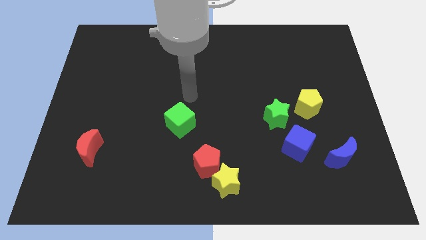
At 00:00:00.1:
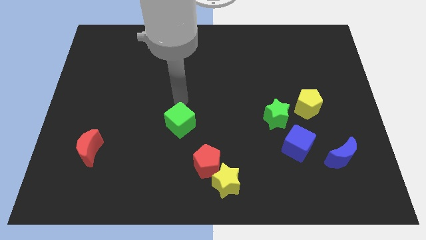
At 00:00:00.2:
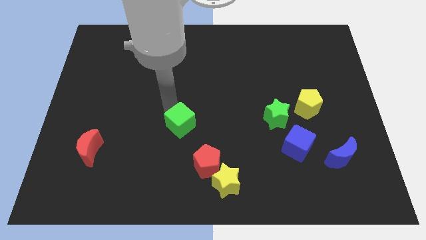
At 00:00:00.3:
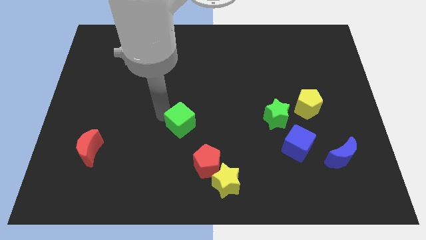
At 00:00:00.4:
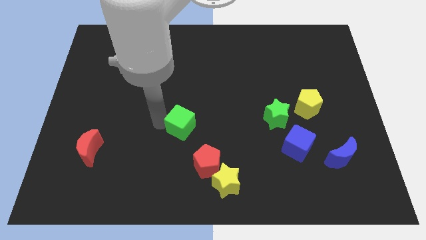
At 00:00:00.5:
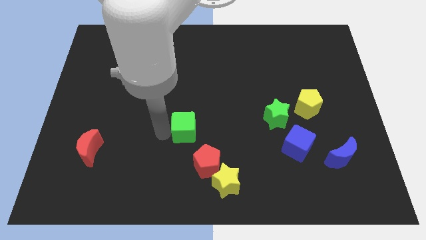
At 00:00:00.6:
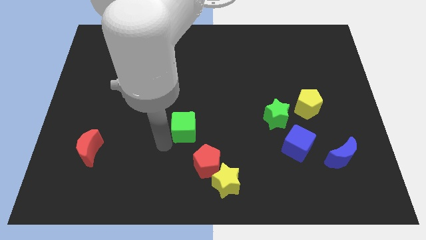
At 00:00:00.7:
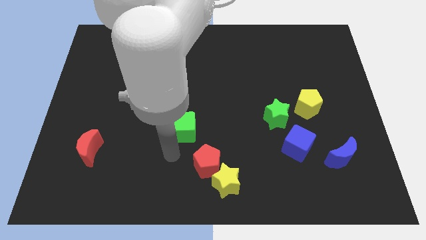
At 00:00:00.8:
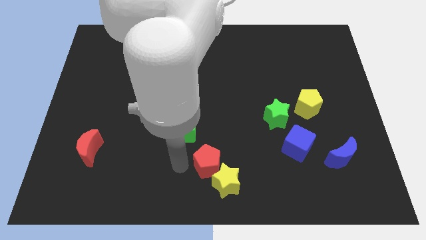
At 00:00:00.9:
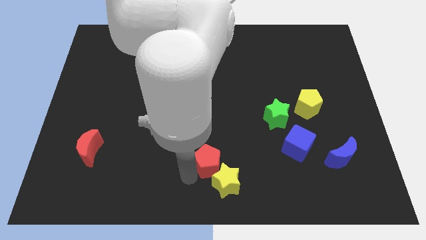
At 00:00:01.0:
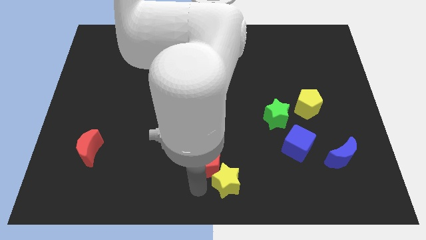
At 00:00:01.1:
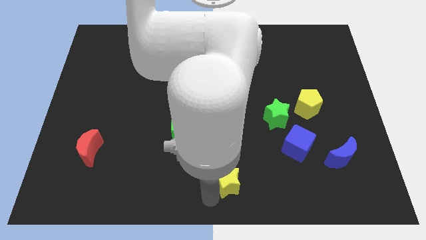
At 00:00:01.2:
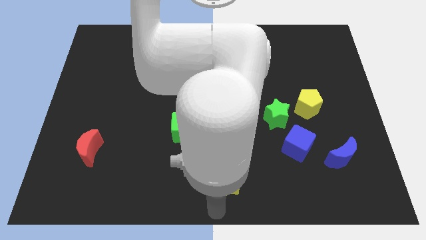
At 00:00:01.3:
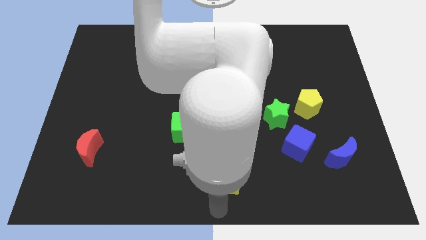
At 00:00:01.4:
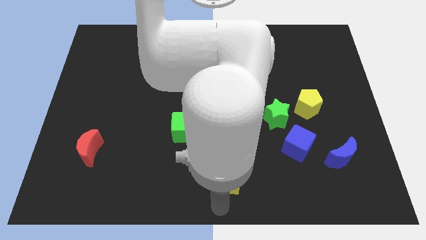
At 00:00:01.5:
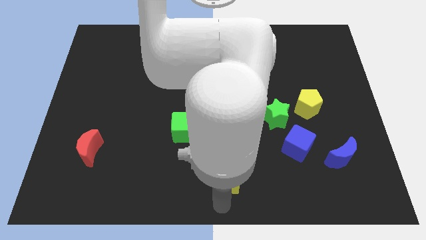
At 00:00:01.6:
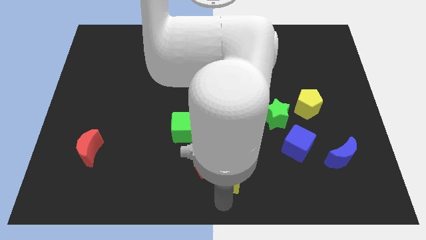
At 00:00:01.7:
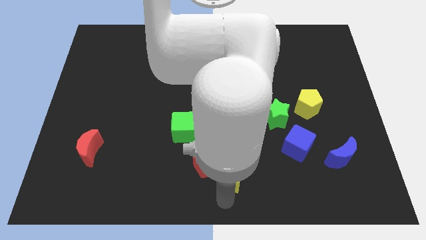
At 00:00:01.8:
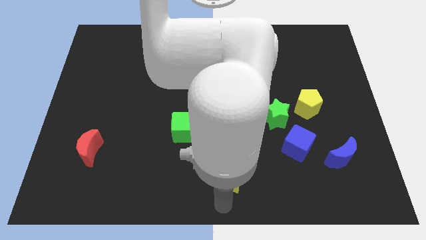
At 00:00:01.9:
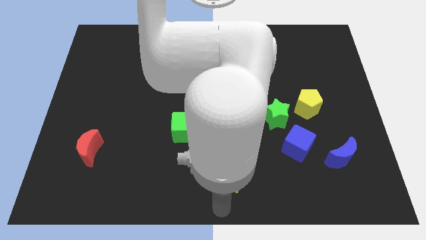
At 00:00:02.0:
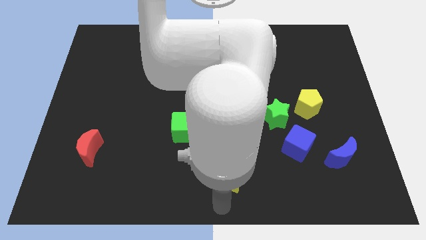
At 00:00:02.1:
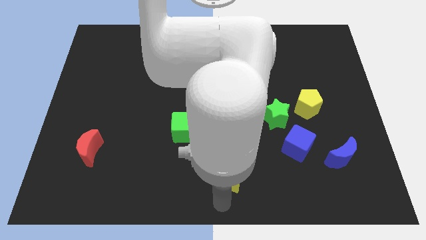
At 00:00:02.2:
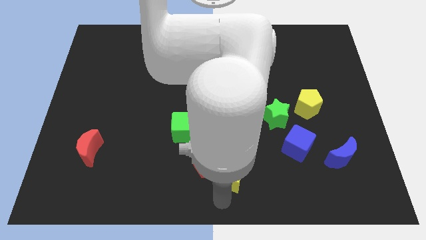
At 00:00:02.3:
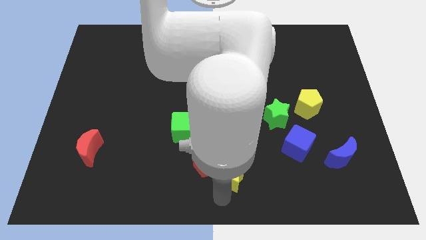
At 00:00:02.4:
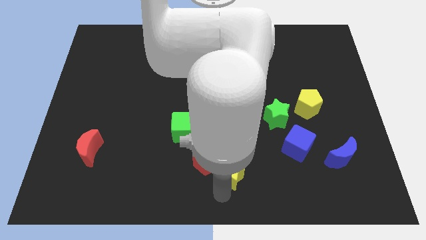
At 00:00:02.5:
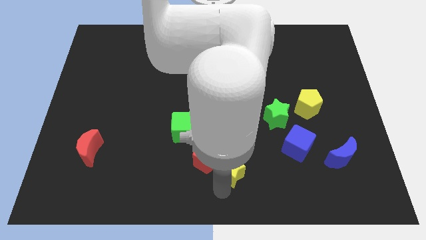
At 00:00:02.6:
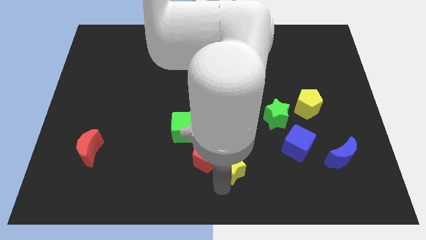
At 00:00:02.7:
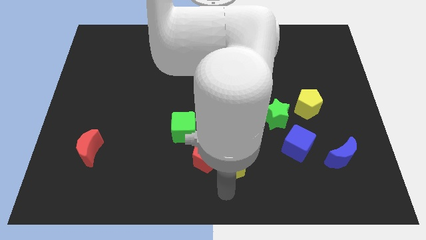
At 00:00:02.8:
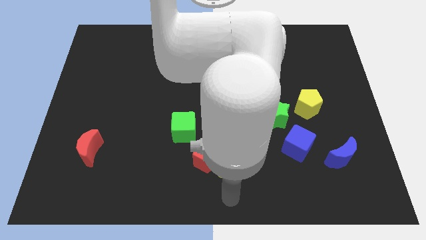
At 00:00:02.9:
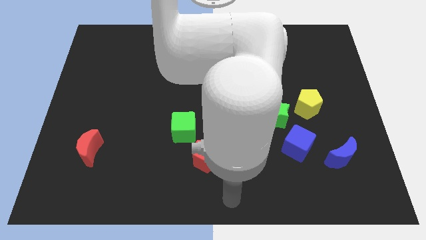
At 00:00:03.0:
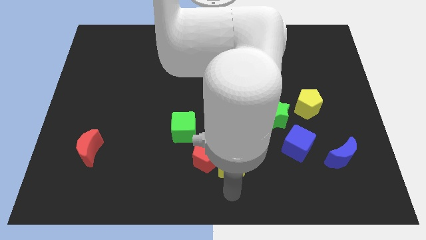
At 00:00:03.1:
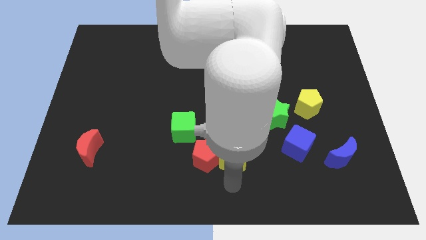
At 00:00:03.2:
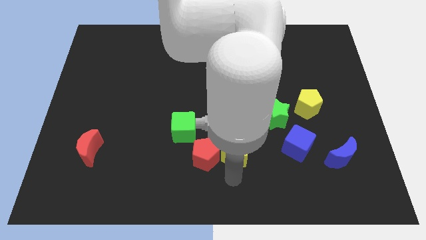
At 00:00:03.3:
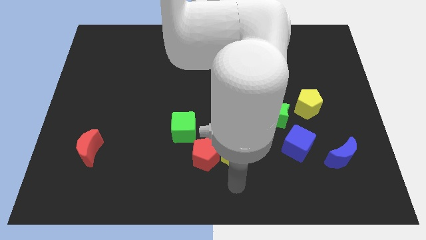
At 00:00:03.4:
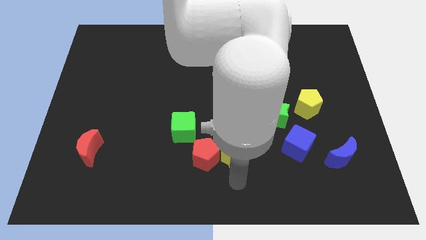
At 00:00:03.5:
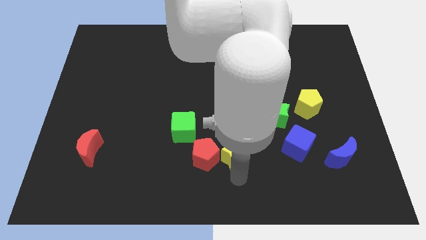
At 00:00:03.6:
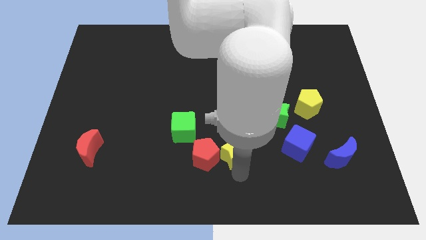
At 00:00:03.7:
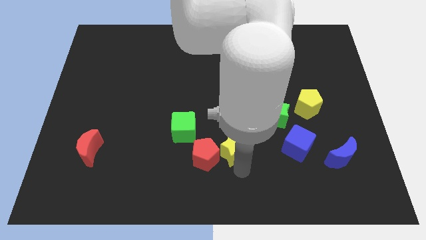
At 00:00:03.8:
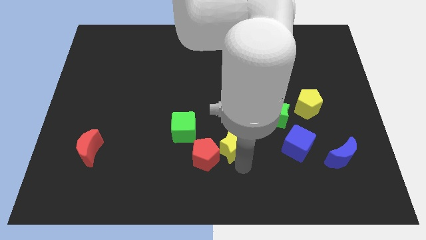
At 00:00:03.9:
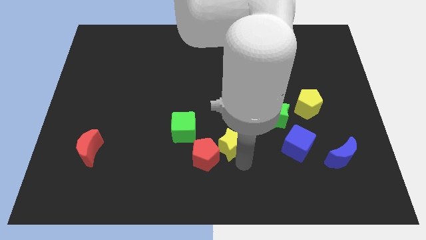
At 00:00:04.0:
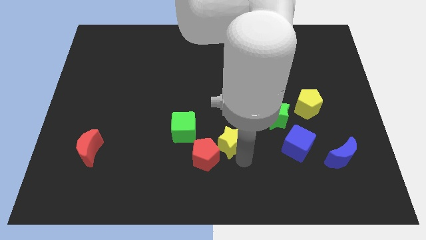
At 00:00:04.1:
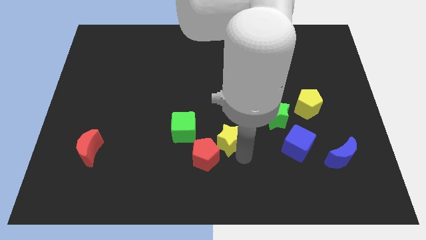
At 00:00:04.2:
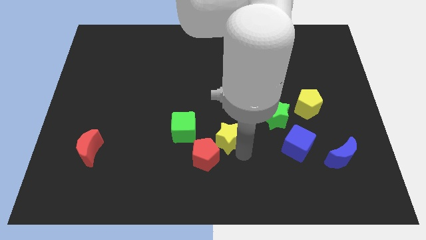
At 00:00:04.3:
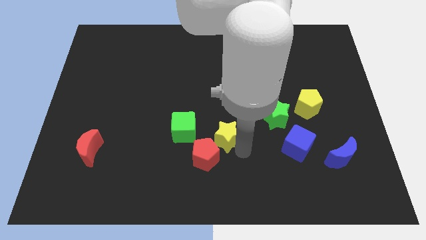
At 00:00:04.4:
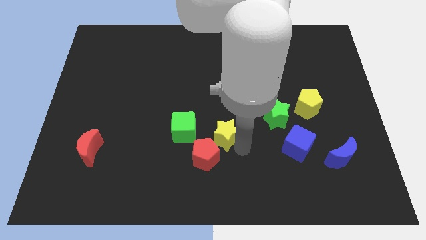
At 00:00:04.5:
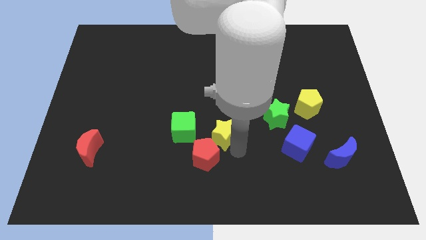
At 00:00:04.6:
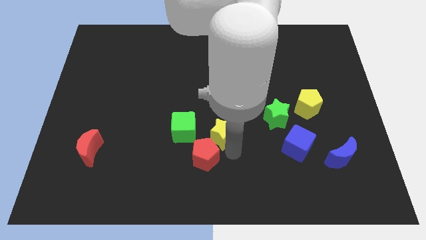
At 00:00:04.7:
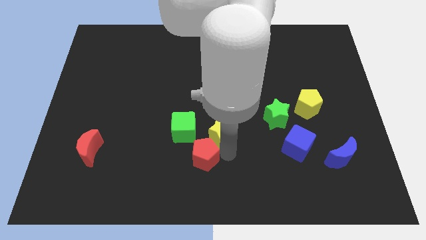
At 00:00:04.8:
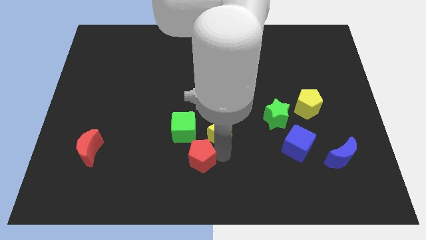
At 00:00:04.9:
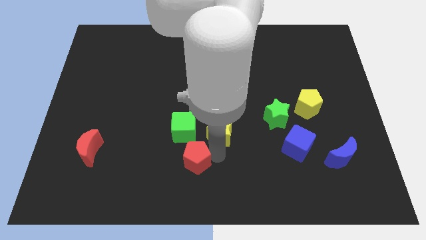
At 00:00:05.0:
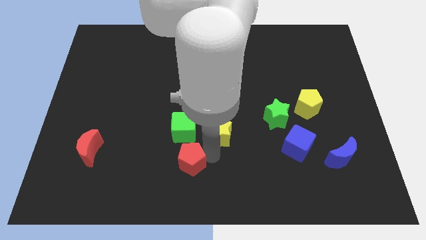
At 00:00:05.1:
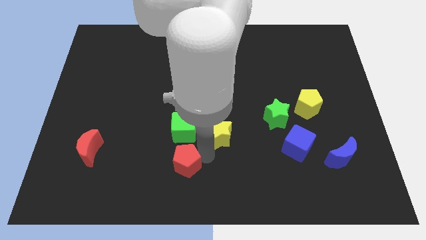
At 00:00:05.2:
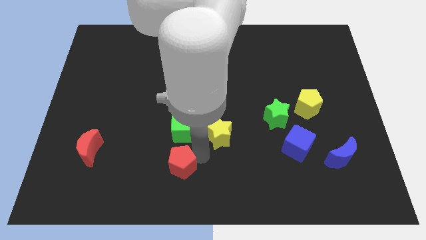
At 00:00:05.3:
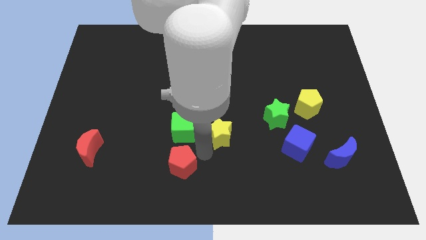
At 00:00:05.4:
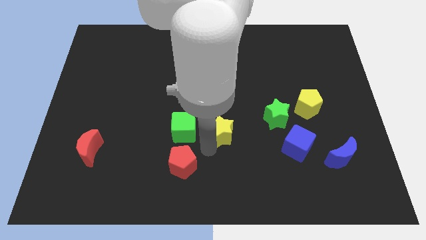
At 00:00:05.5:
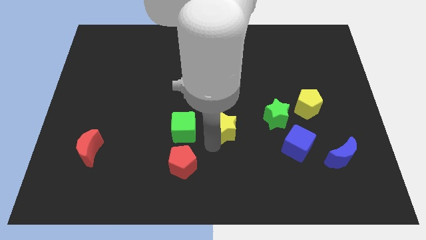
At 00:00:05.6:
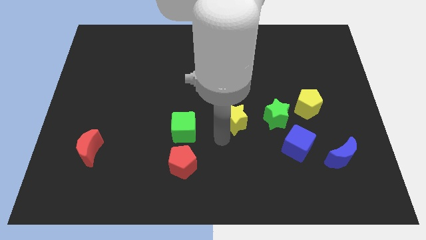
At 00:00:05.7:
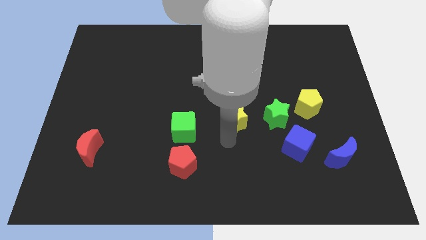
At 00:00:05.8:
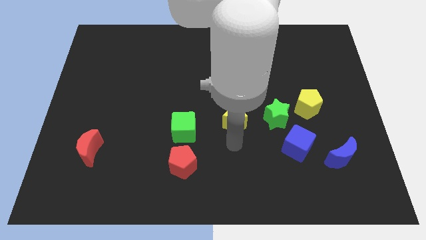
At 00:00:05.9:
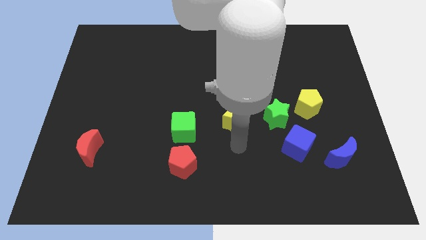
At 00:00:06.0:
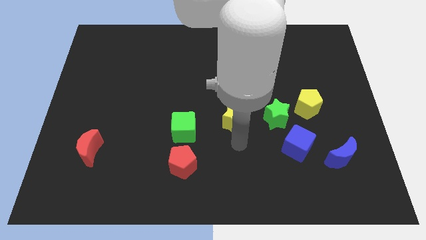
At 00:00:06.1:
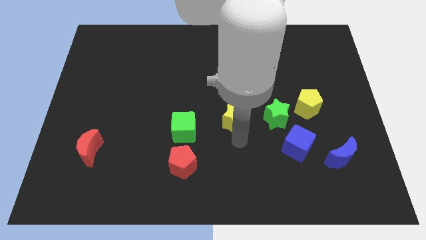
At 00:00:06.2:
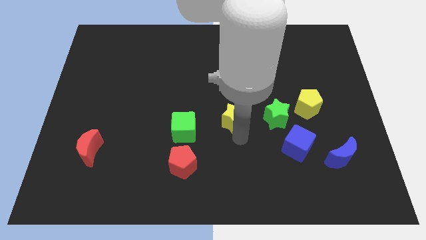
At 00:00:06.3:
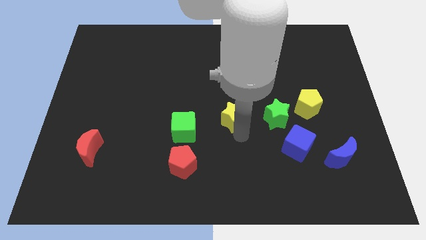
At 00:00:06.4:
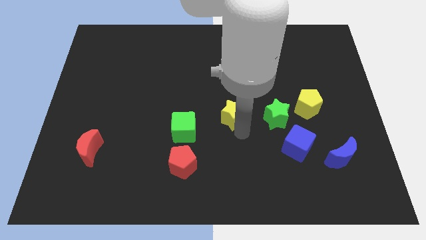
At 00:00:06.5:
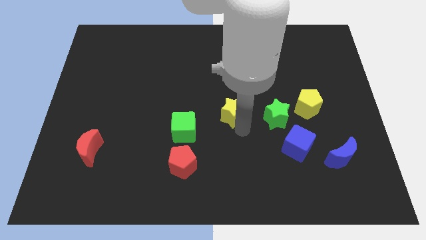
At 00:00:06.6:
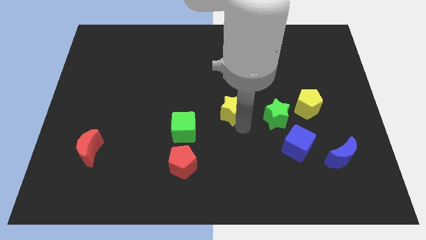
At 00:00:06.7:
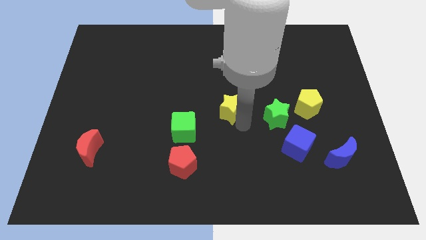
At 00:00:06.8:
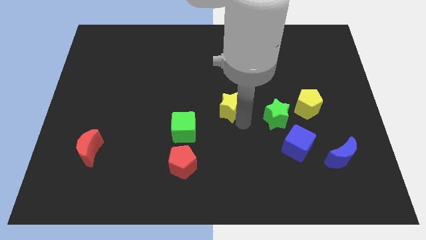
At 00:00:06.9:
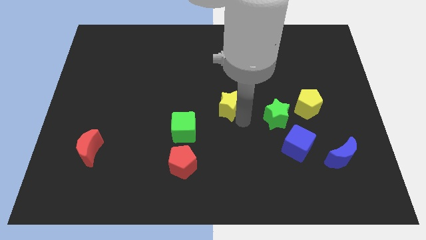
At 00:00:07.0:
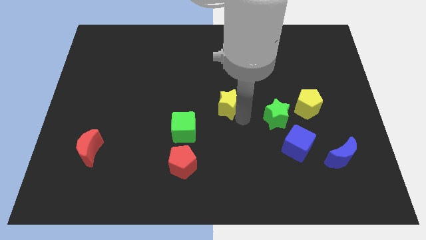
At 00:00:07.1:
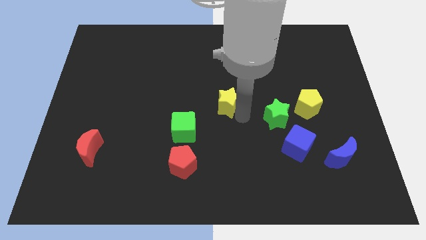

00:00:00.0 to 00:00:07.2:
push the yellow star upwards

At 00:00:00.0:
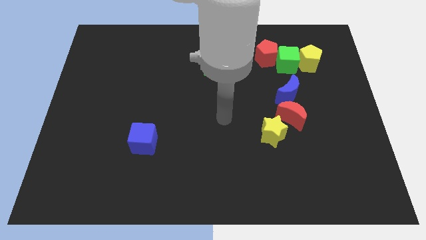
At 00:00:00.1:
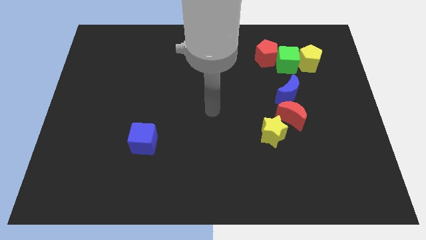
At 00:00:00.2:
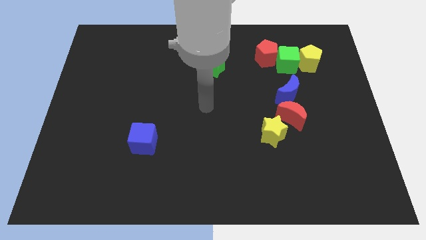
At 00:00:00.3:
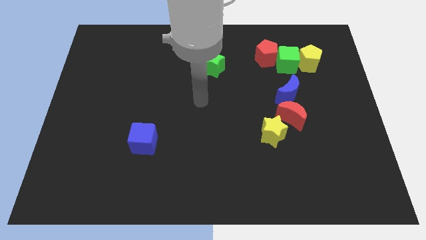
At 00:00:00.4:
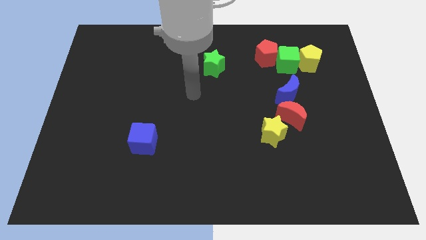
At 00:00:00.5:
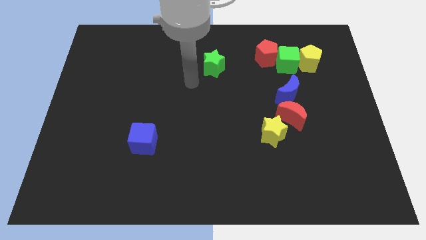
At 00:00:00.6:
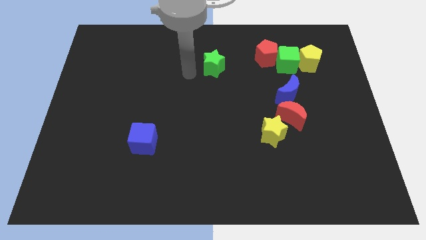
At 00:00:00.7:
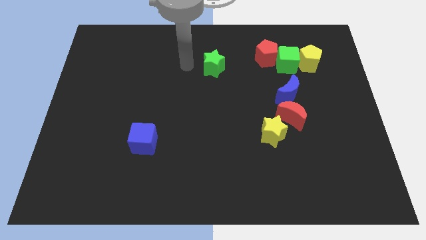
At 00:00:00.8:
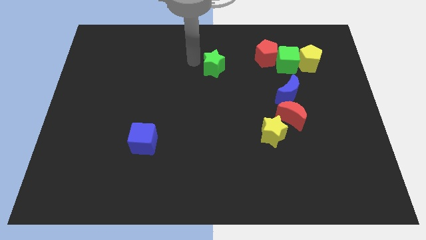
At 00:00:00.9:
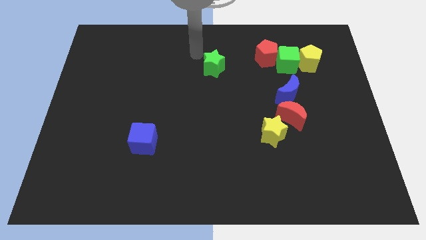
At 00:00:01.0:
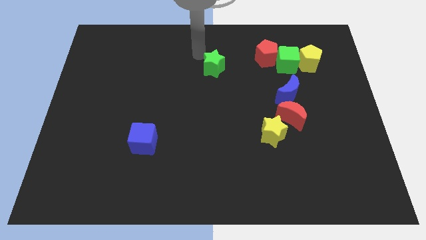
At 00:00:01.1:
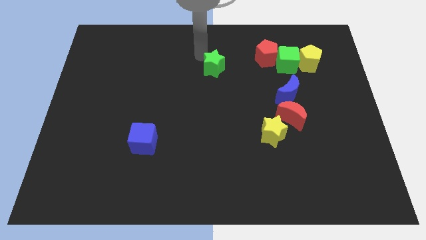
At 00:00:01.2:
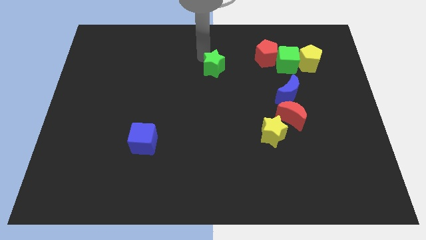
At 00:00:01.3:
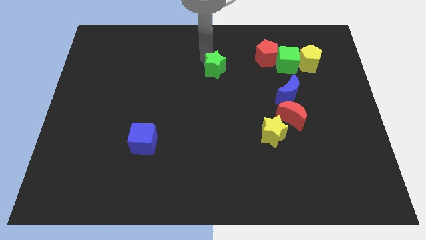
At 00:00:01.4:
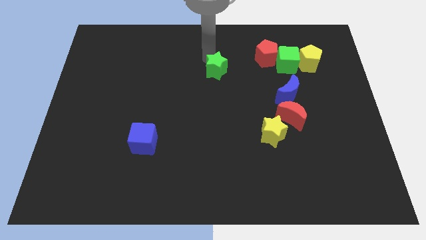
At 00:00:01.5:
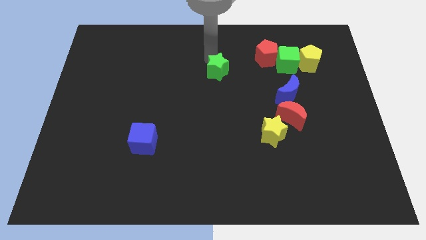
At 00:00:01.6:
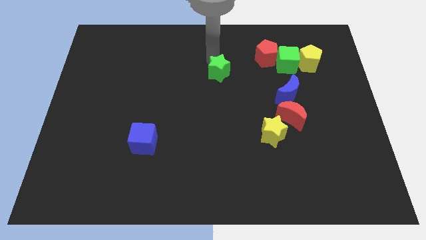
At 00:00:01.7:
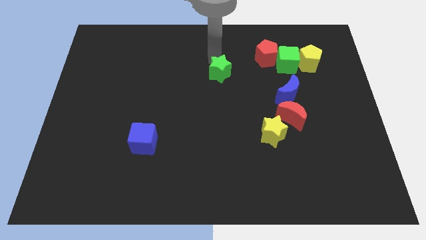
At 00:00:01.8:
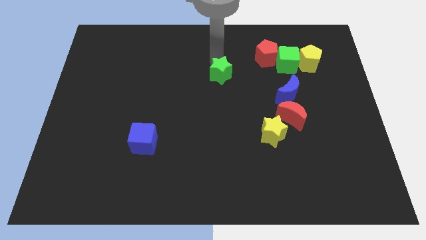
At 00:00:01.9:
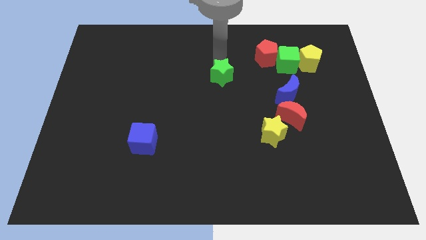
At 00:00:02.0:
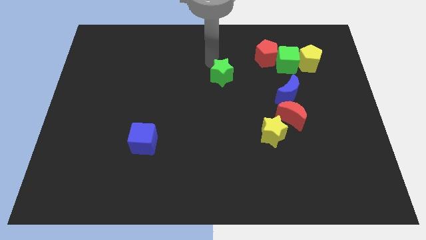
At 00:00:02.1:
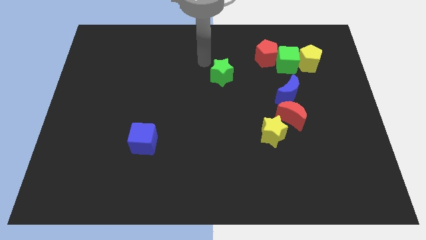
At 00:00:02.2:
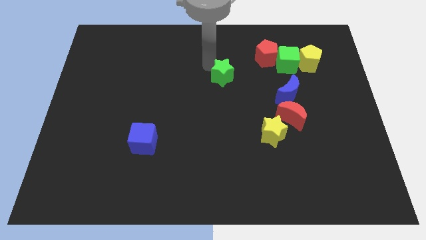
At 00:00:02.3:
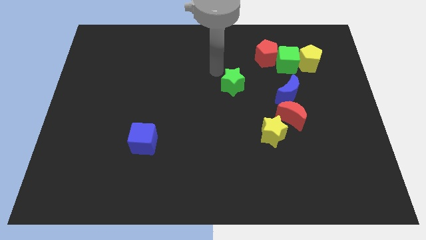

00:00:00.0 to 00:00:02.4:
move the green star slightly down and then right
